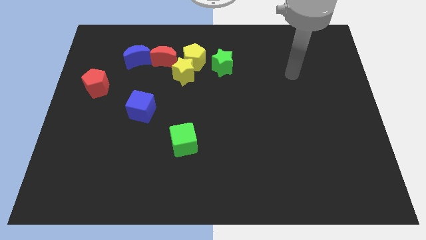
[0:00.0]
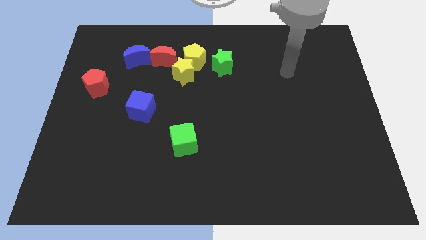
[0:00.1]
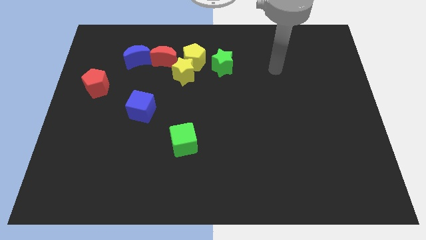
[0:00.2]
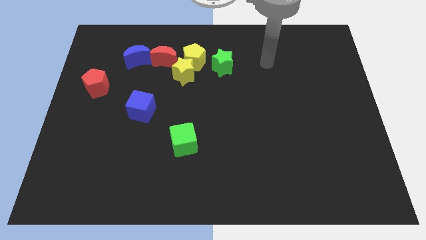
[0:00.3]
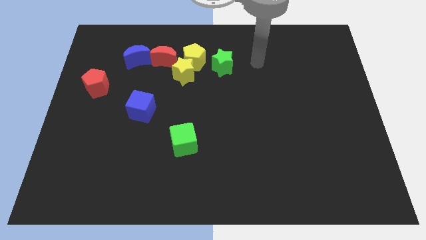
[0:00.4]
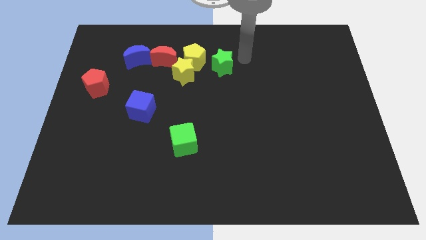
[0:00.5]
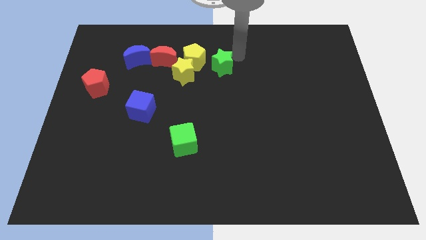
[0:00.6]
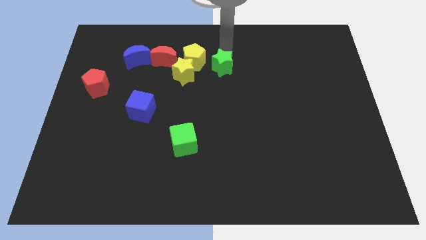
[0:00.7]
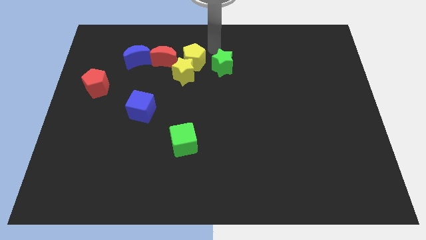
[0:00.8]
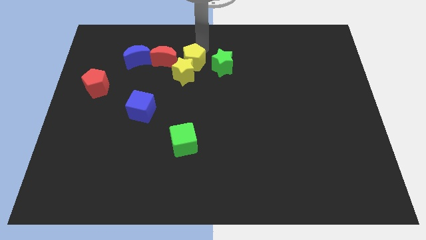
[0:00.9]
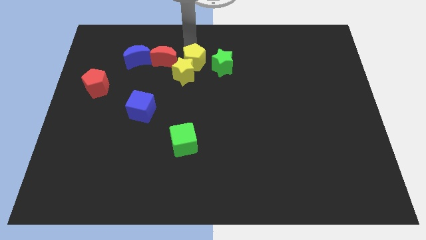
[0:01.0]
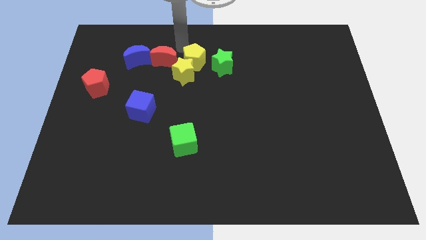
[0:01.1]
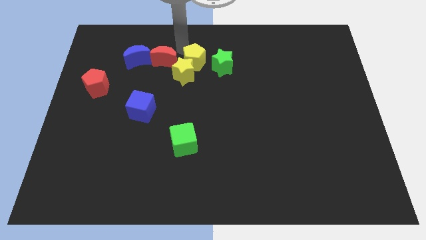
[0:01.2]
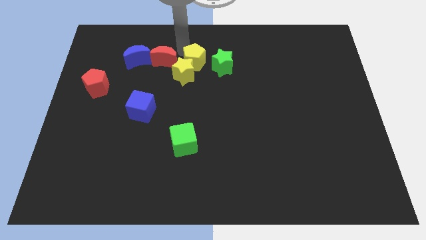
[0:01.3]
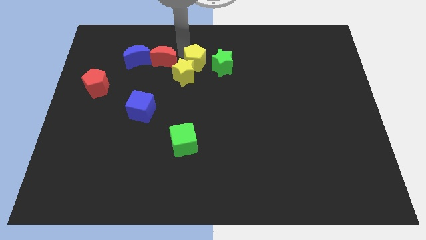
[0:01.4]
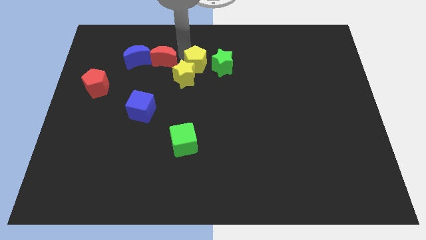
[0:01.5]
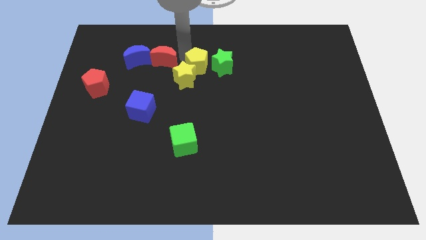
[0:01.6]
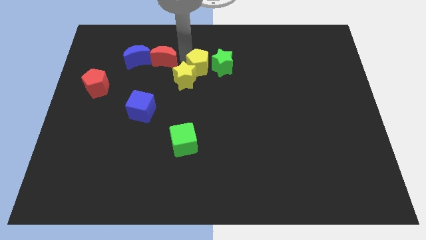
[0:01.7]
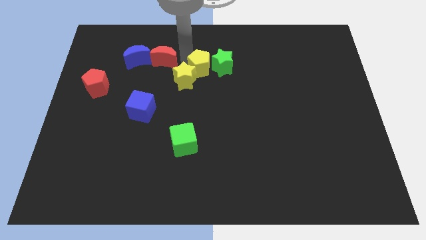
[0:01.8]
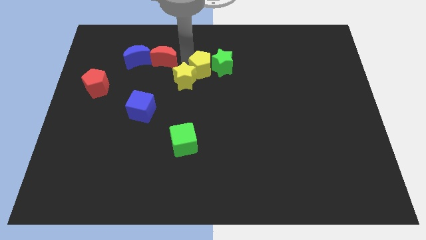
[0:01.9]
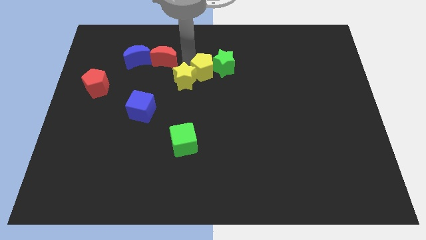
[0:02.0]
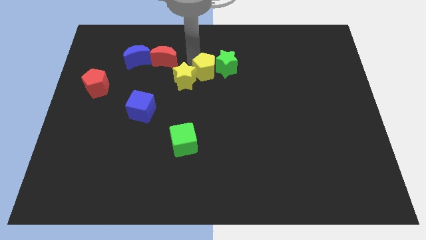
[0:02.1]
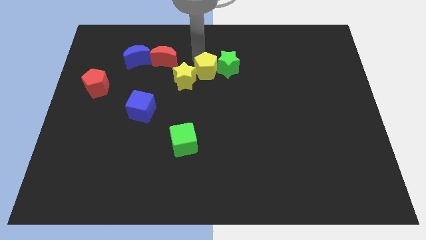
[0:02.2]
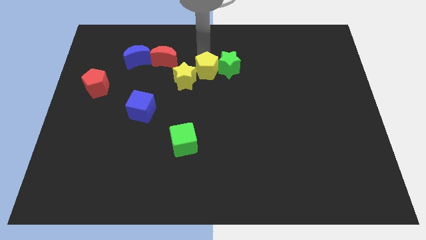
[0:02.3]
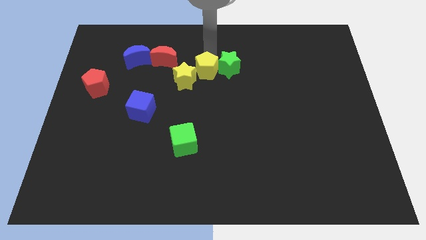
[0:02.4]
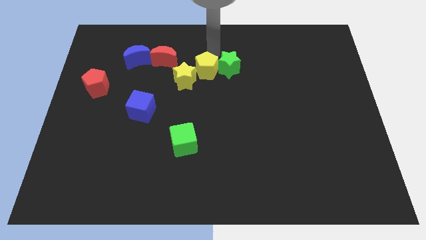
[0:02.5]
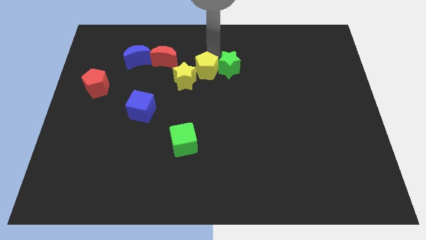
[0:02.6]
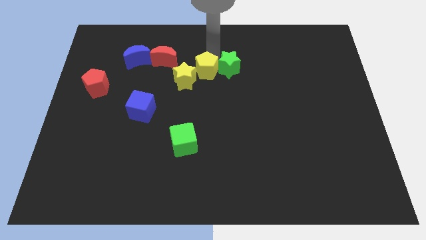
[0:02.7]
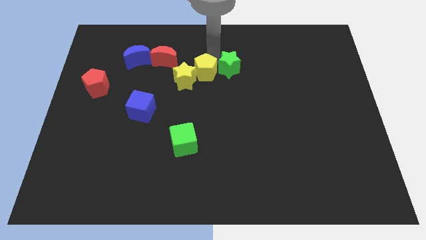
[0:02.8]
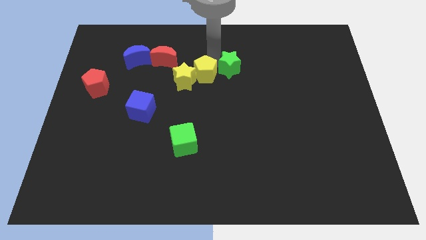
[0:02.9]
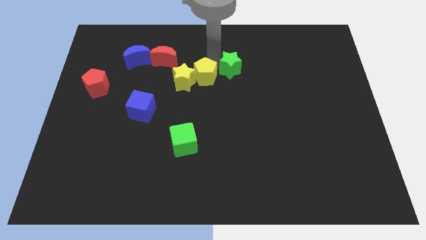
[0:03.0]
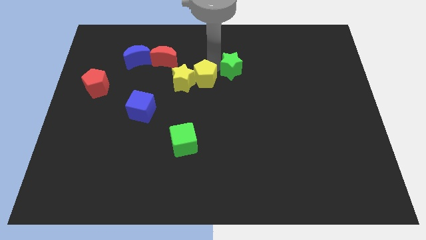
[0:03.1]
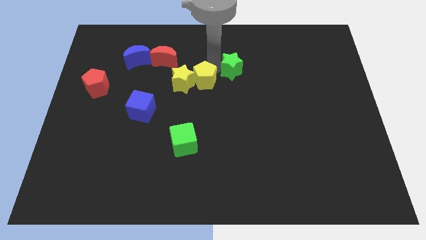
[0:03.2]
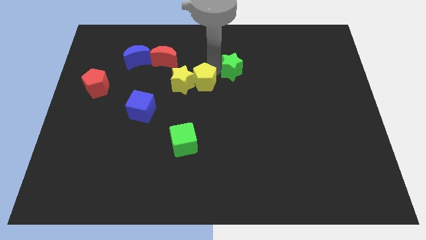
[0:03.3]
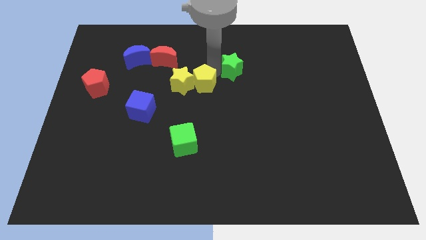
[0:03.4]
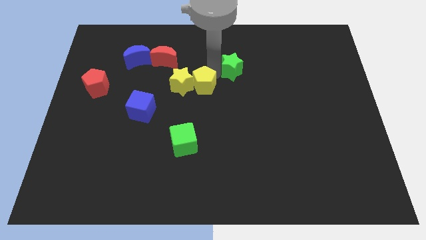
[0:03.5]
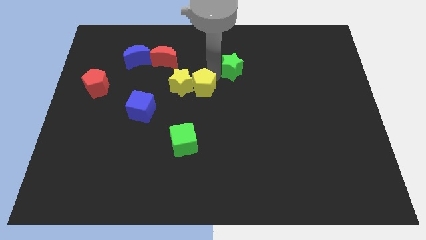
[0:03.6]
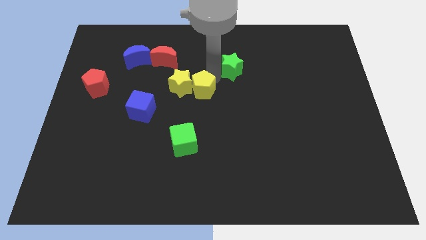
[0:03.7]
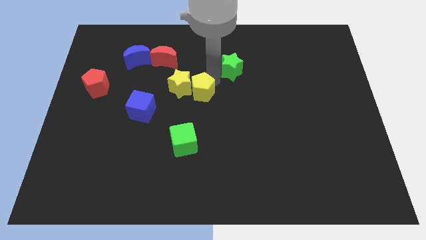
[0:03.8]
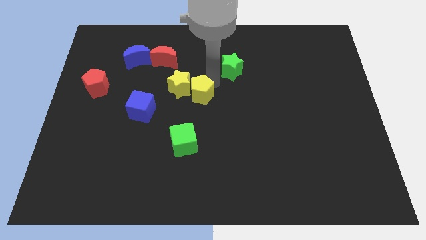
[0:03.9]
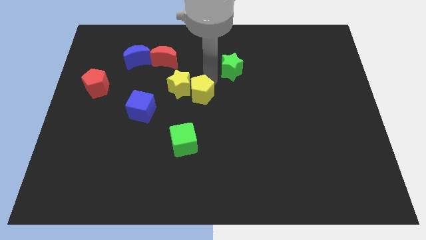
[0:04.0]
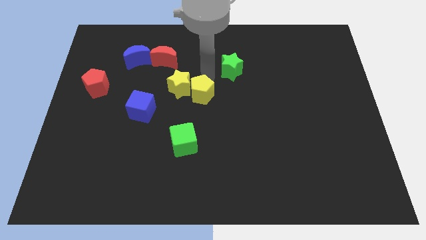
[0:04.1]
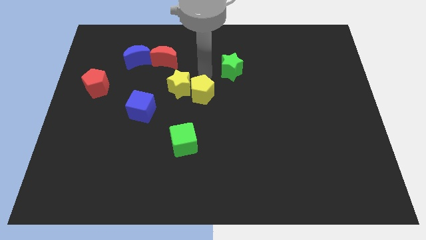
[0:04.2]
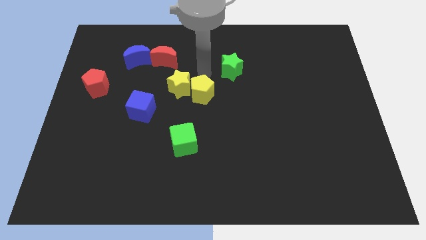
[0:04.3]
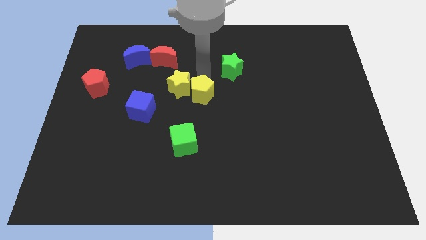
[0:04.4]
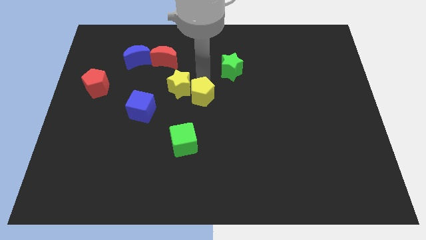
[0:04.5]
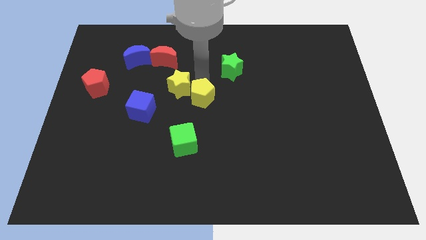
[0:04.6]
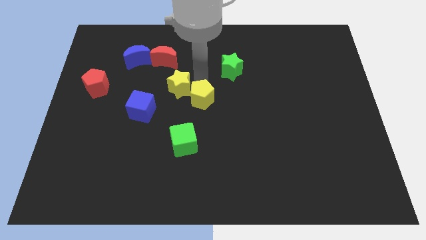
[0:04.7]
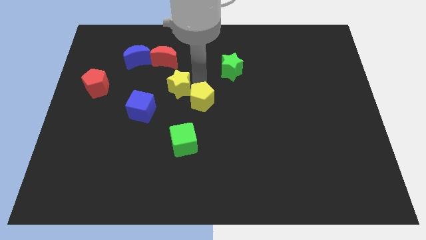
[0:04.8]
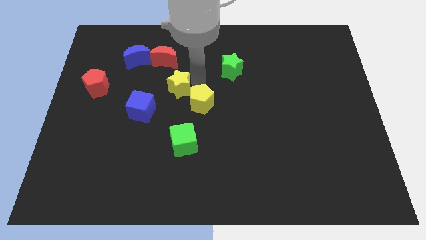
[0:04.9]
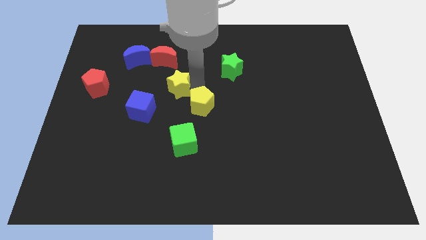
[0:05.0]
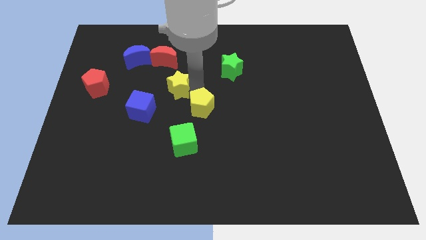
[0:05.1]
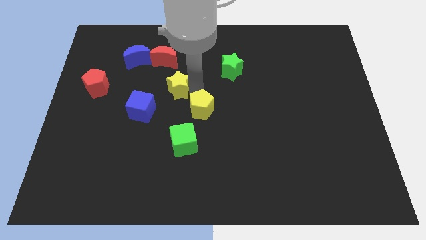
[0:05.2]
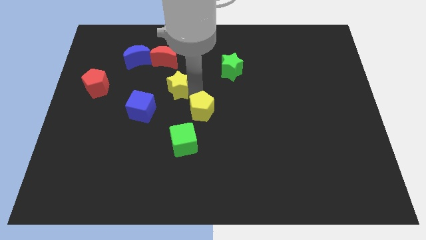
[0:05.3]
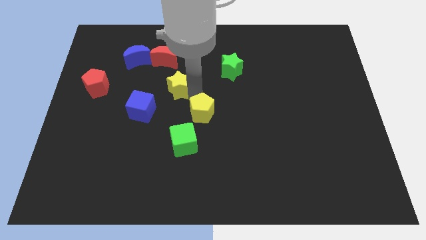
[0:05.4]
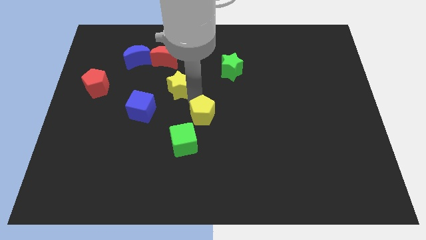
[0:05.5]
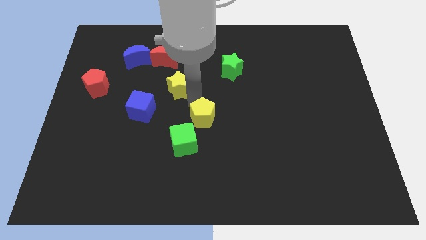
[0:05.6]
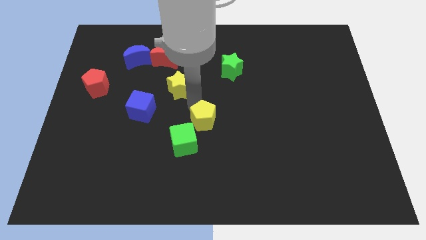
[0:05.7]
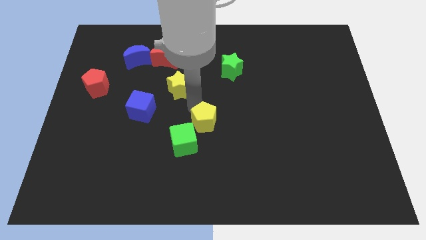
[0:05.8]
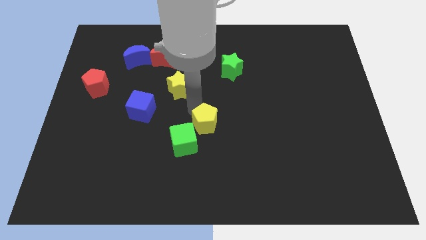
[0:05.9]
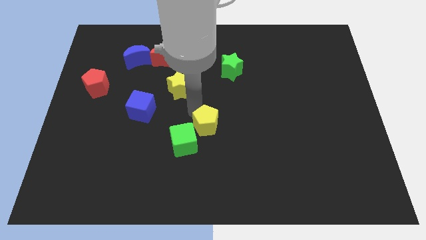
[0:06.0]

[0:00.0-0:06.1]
move the yellow pentagon downwards

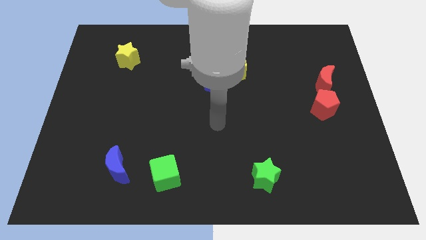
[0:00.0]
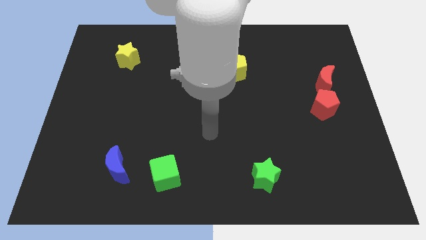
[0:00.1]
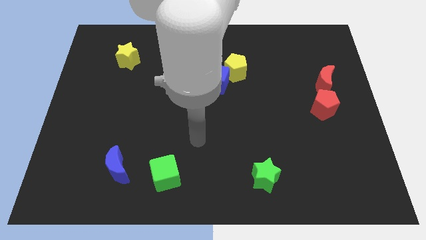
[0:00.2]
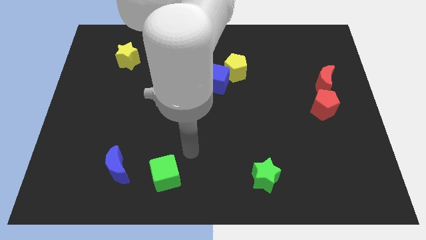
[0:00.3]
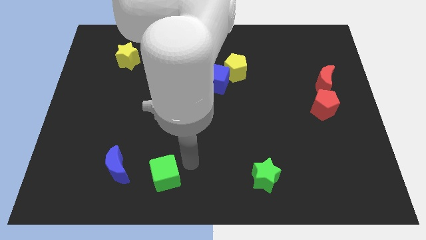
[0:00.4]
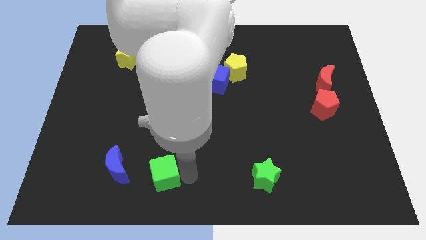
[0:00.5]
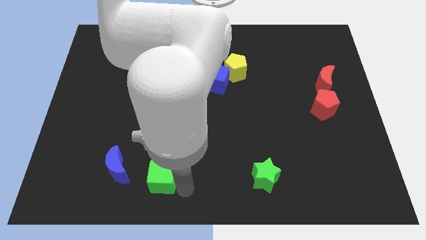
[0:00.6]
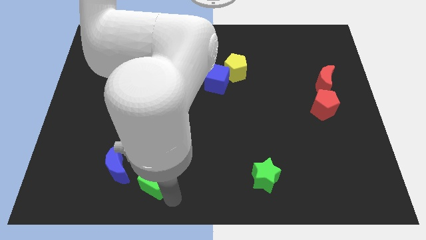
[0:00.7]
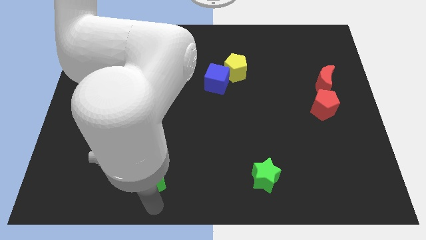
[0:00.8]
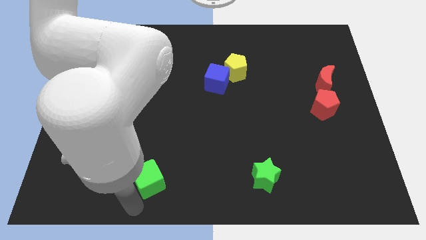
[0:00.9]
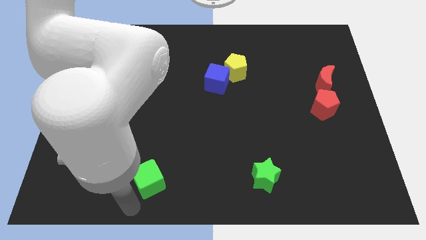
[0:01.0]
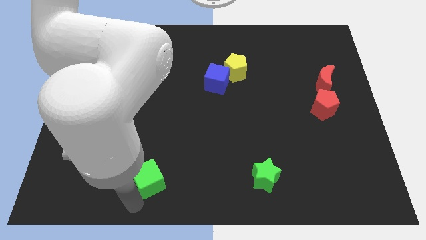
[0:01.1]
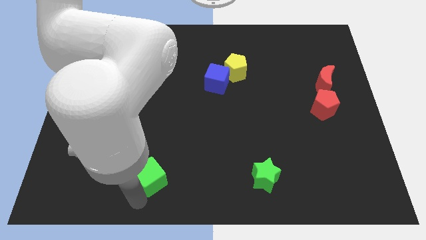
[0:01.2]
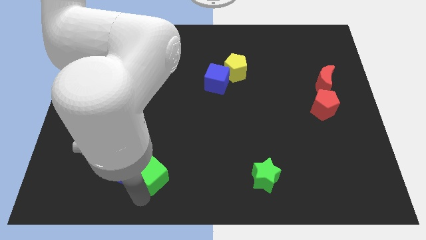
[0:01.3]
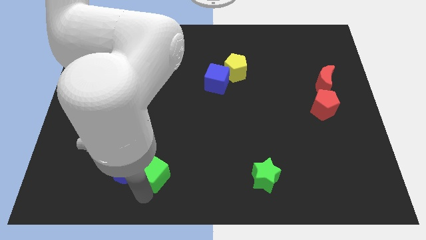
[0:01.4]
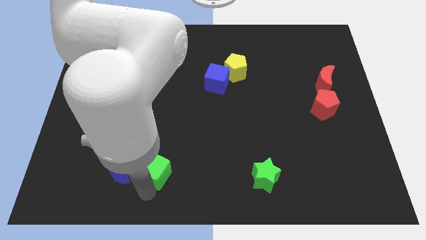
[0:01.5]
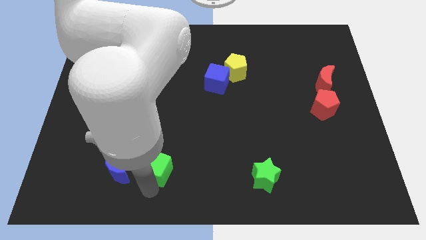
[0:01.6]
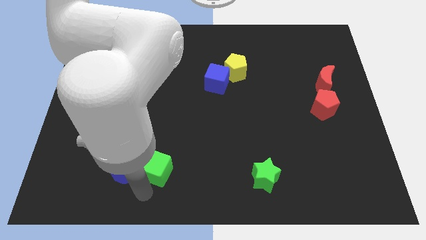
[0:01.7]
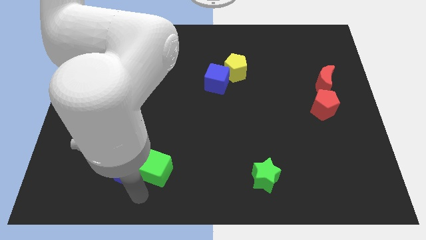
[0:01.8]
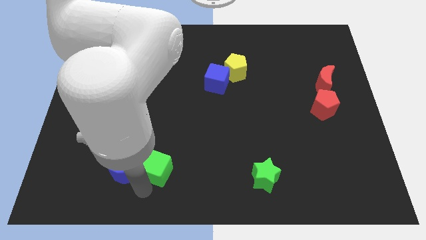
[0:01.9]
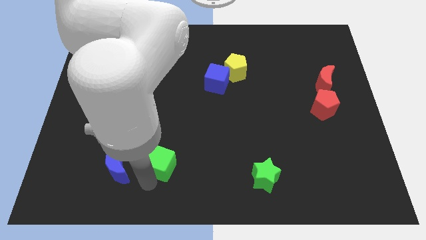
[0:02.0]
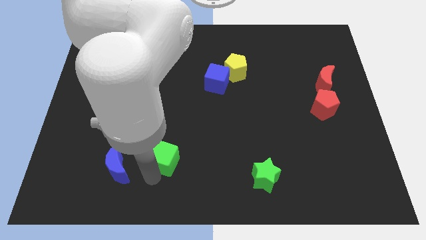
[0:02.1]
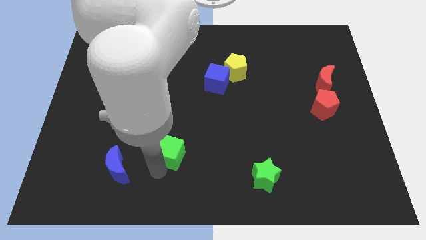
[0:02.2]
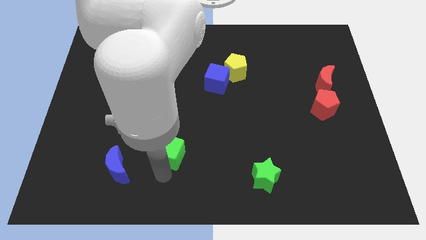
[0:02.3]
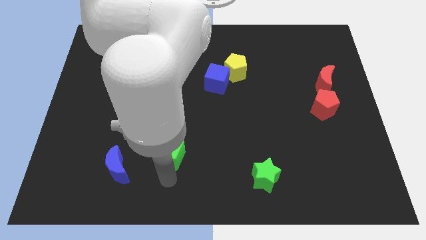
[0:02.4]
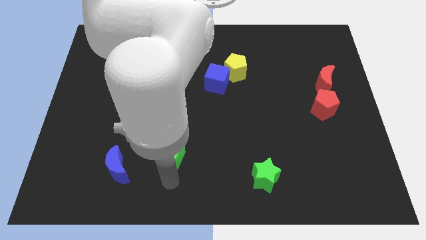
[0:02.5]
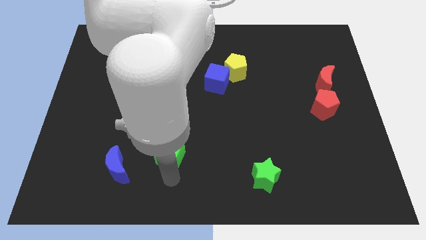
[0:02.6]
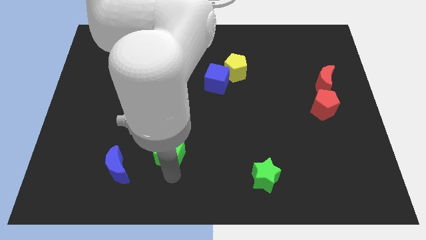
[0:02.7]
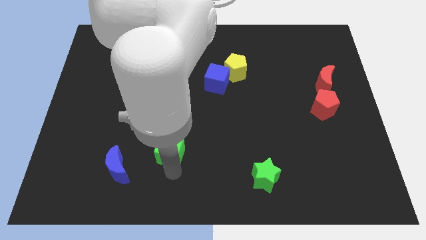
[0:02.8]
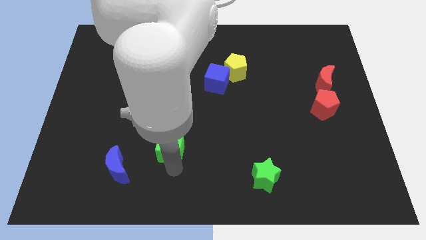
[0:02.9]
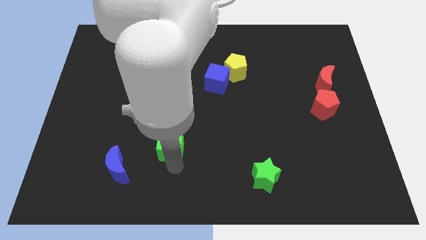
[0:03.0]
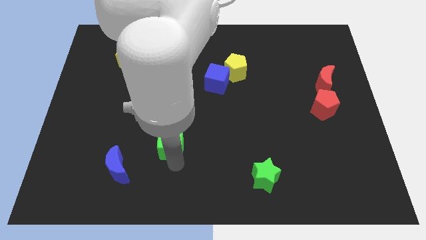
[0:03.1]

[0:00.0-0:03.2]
slightly slide the green cube upwards
